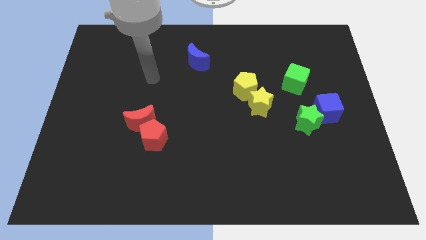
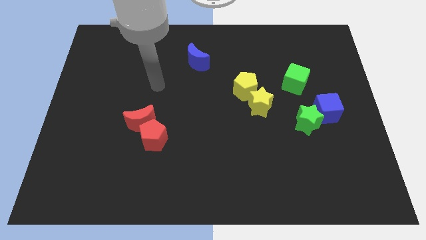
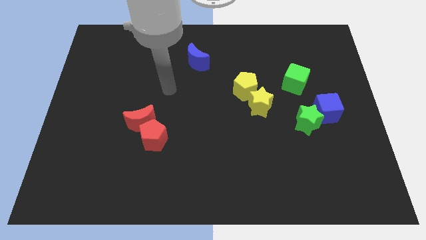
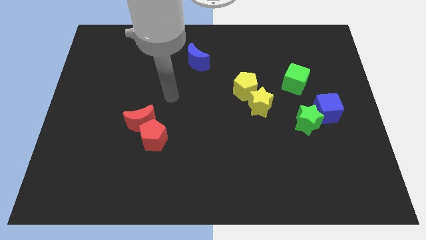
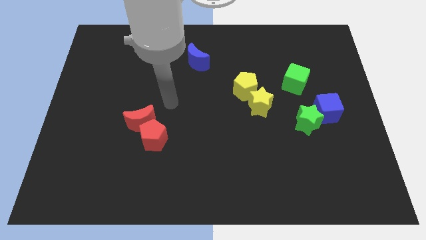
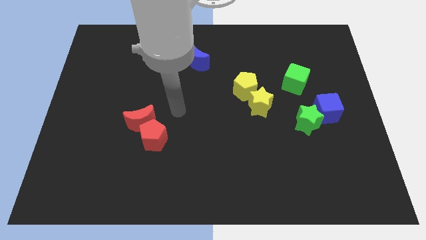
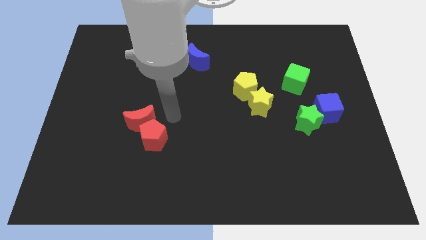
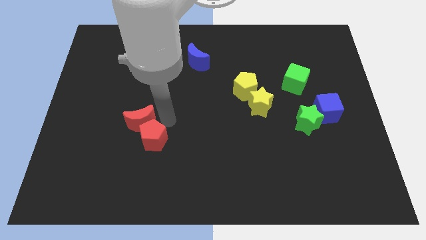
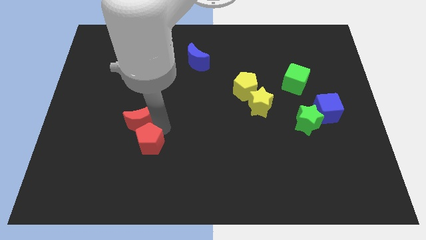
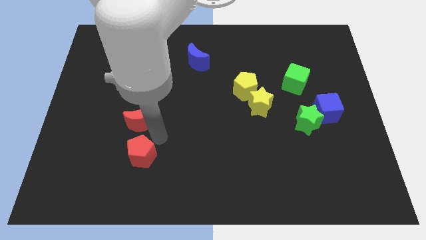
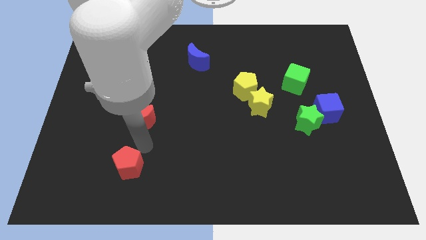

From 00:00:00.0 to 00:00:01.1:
move the red moon away from the red pentagon

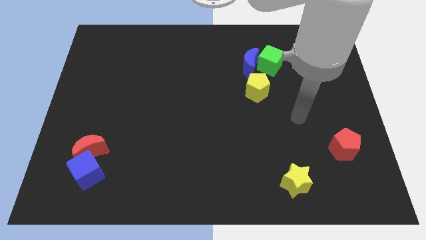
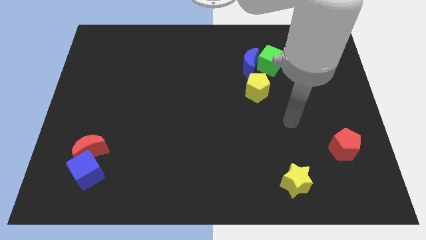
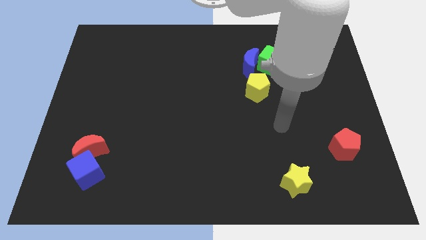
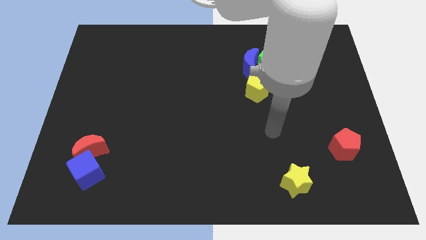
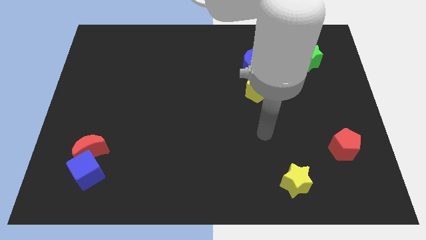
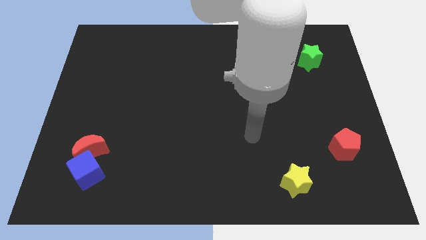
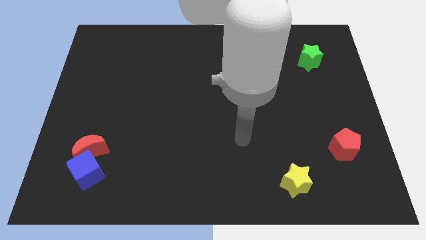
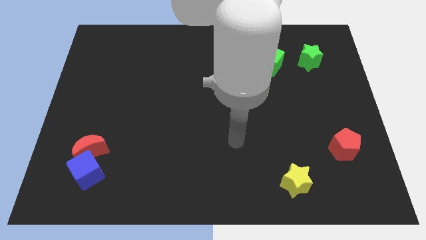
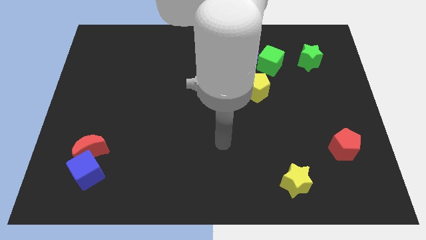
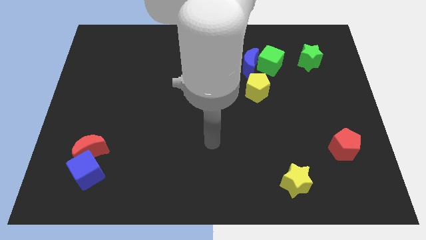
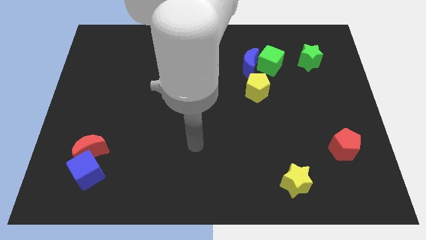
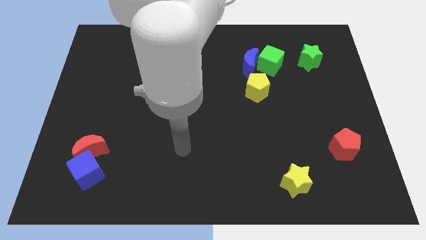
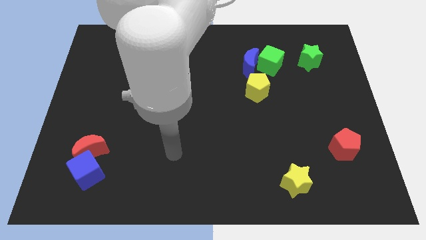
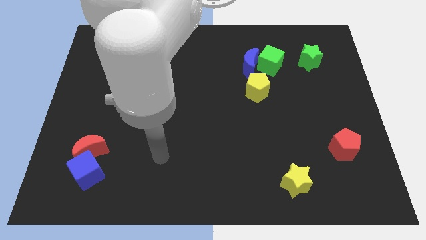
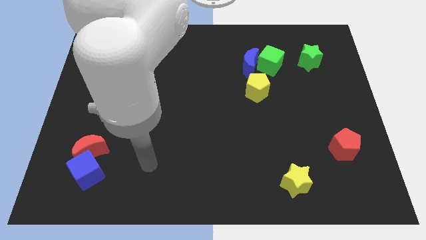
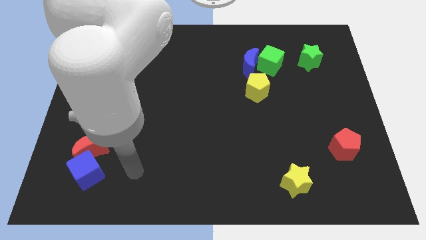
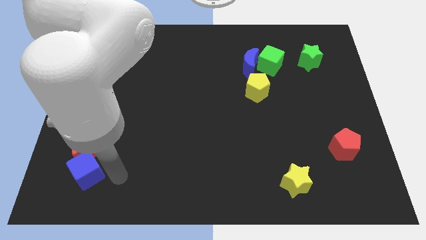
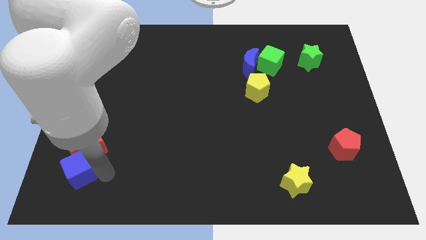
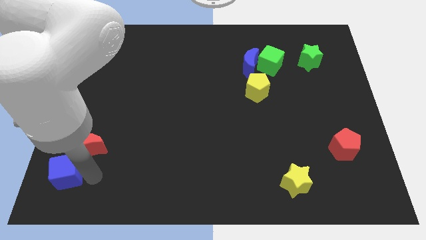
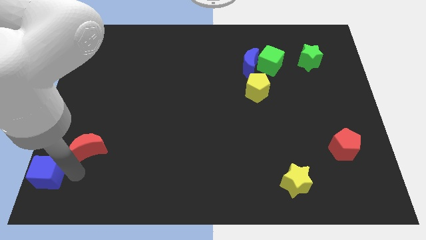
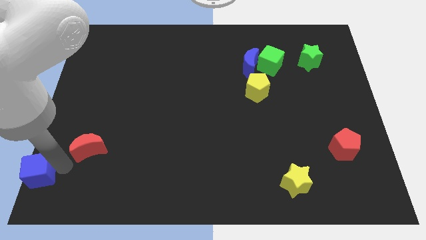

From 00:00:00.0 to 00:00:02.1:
move the red moon away from the blue cube

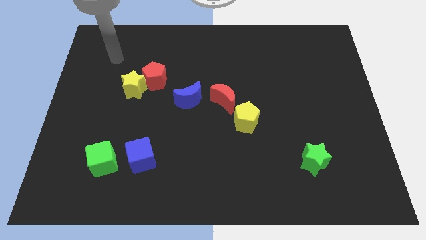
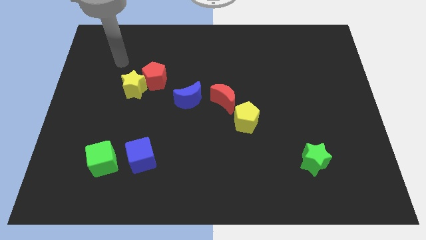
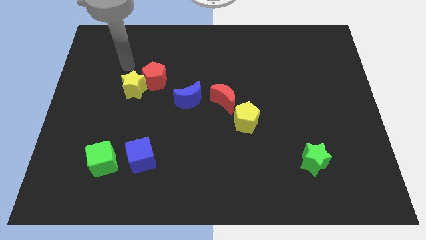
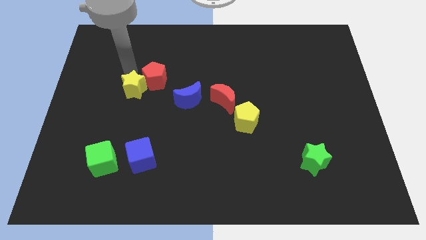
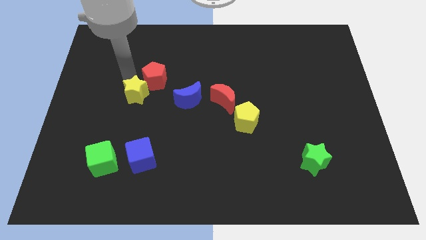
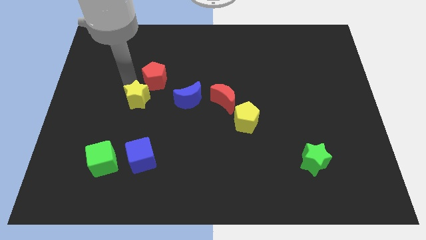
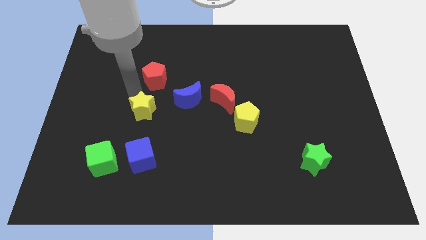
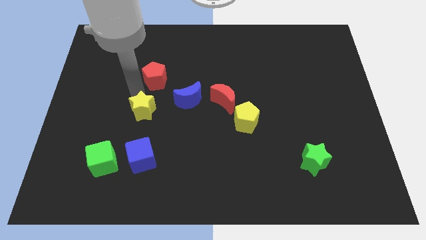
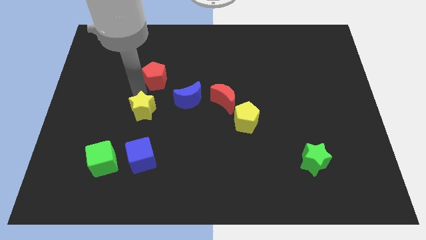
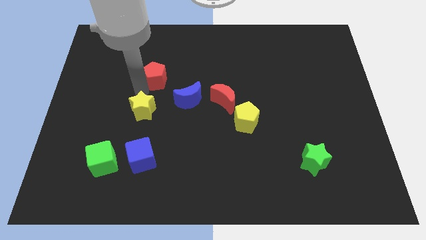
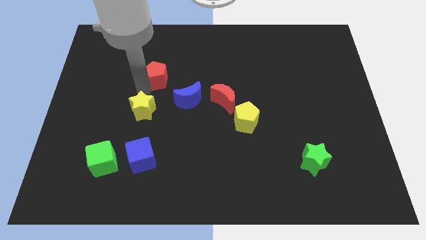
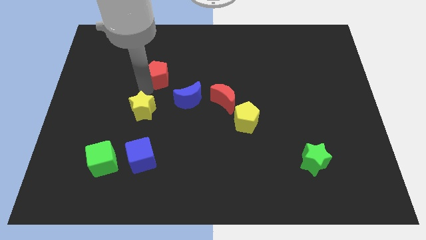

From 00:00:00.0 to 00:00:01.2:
move the red pentagon away from the yellow star

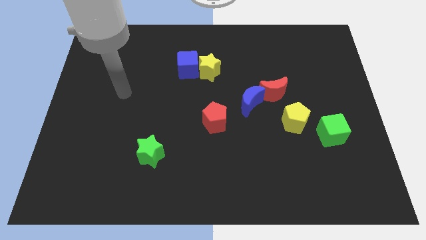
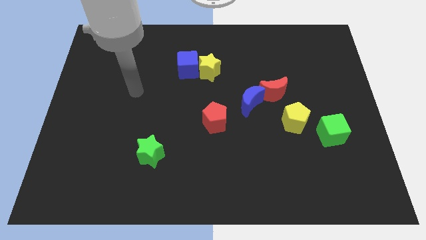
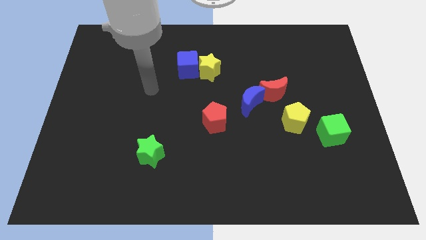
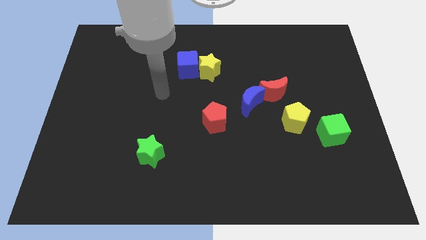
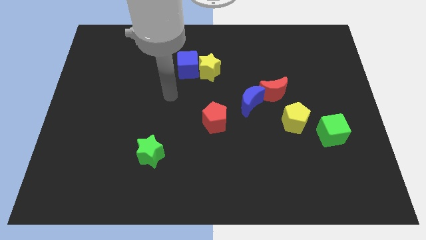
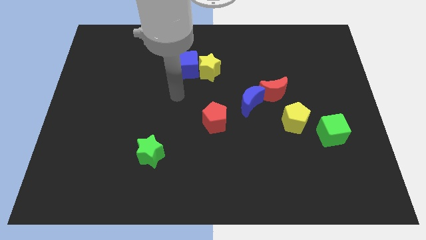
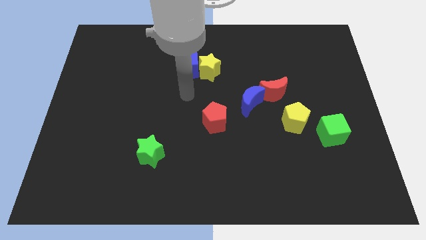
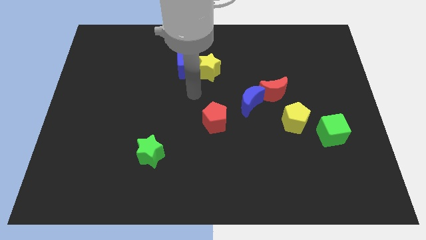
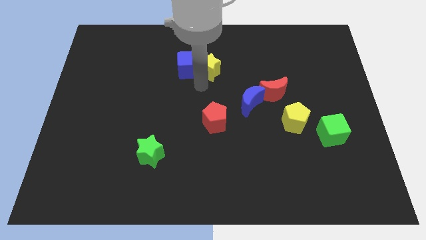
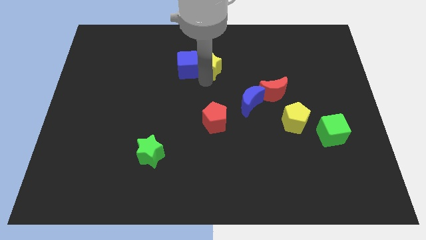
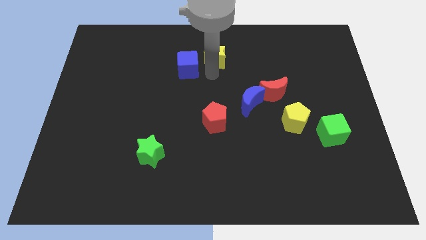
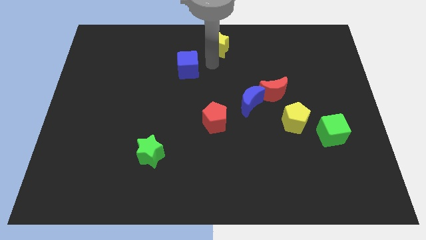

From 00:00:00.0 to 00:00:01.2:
move the blue cube away from the yellow star

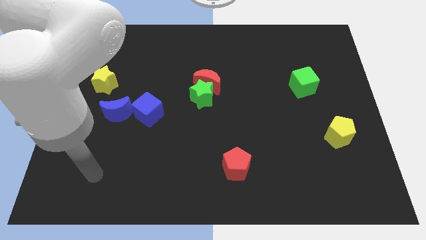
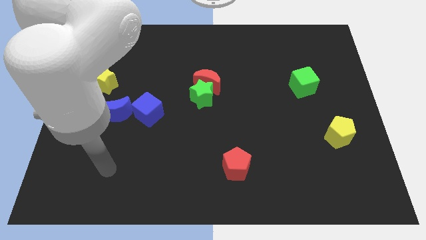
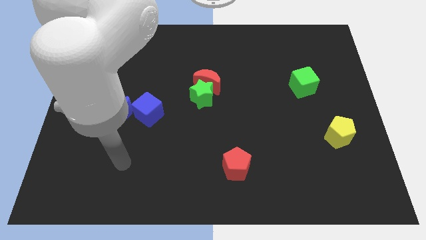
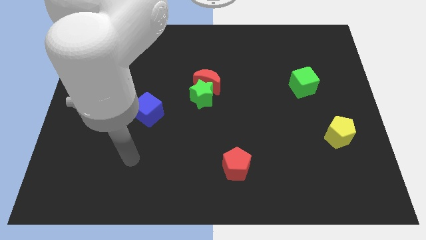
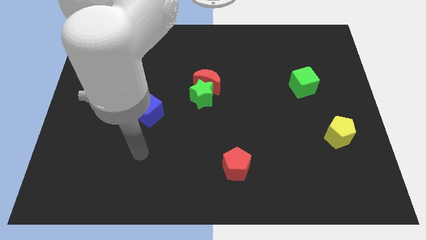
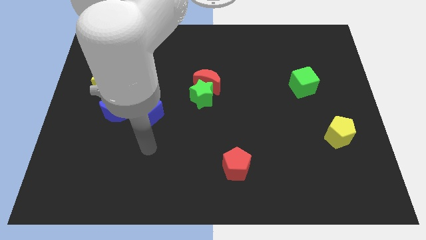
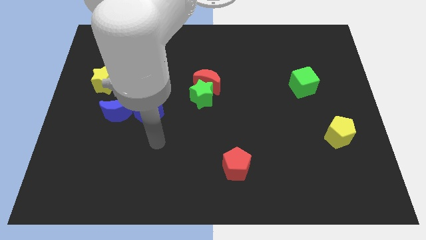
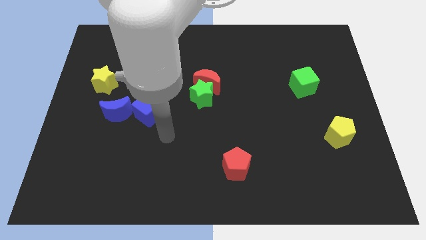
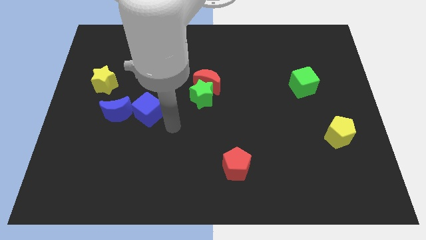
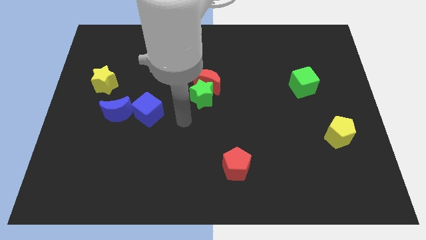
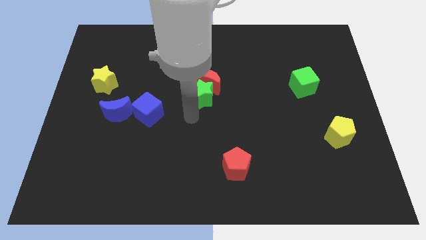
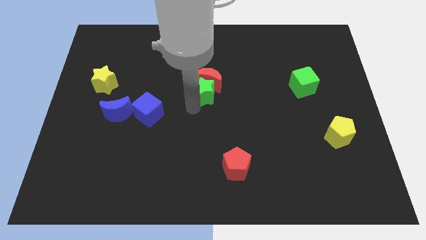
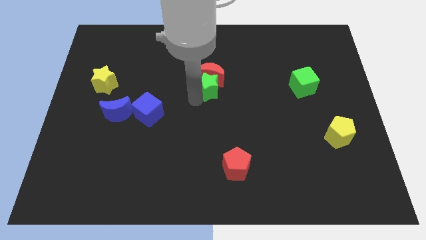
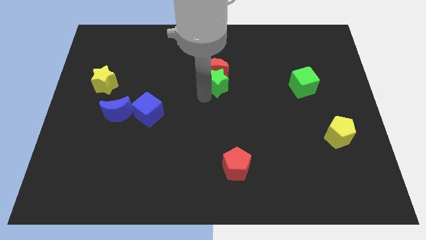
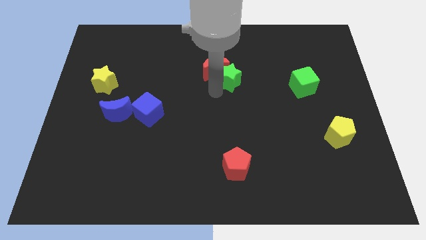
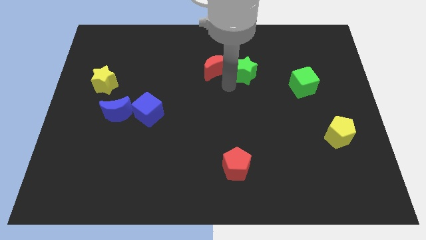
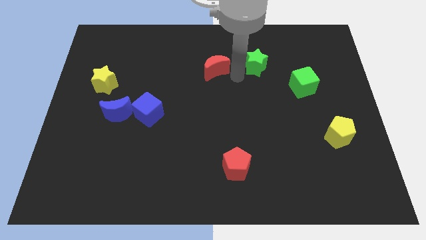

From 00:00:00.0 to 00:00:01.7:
pull the red moon apart from the green star

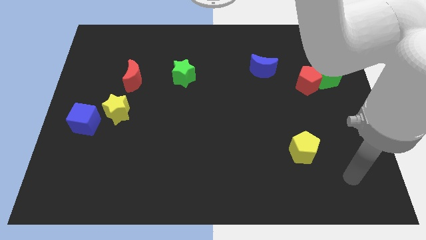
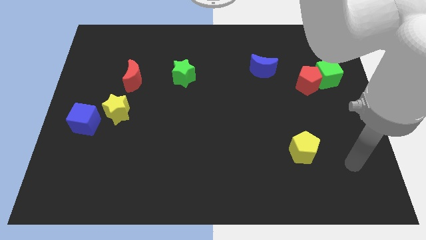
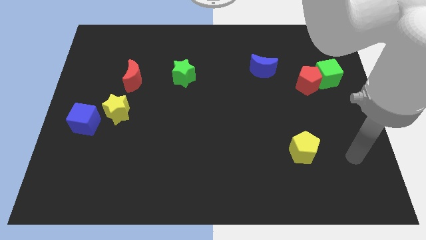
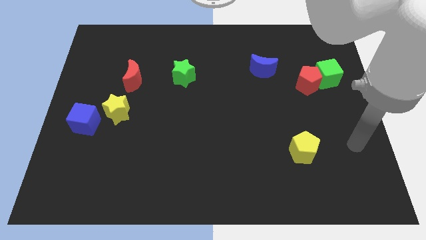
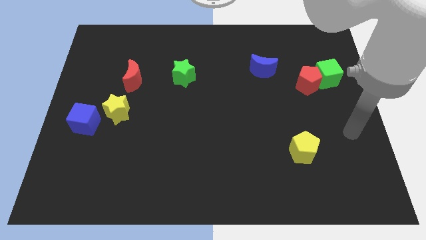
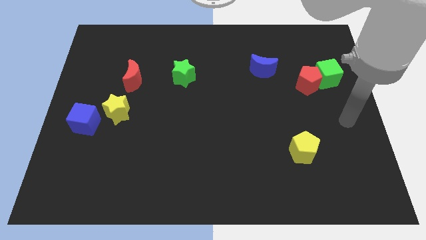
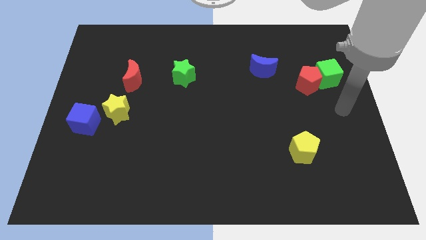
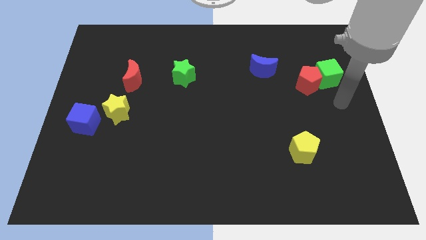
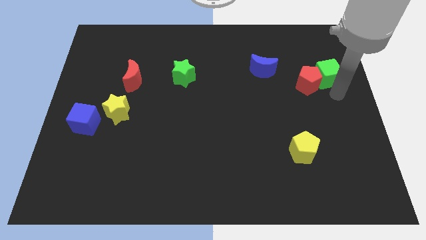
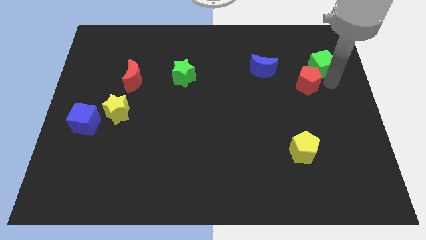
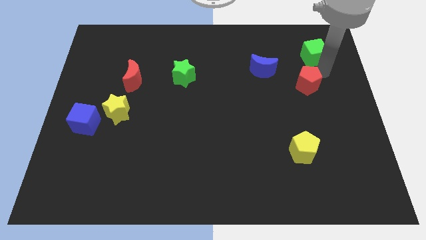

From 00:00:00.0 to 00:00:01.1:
separate the red pentagon from the green cube

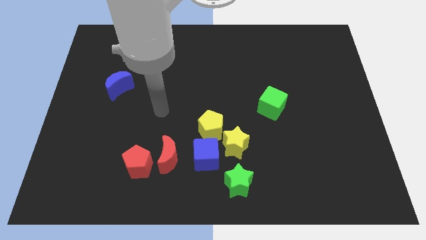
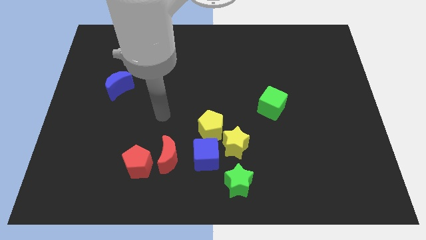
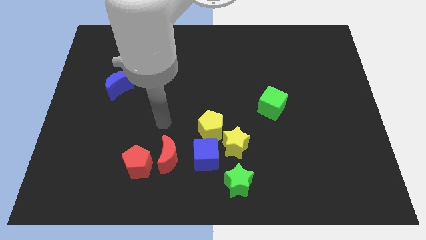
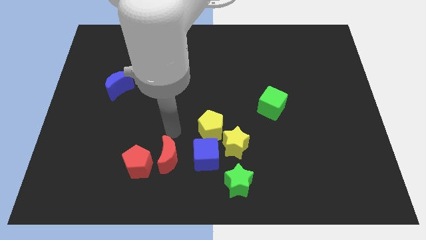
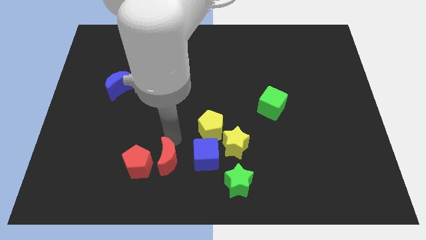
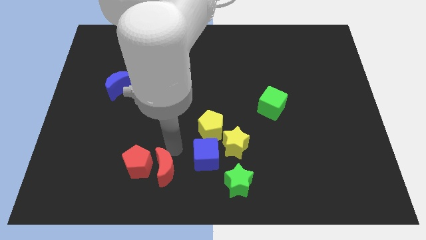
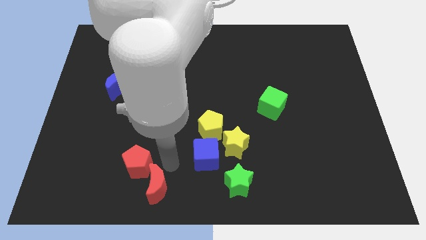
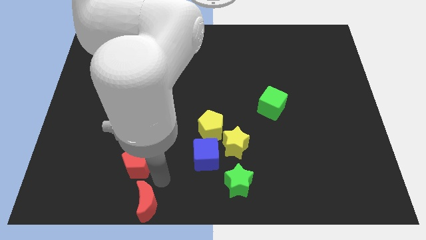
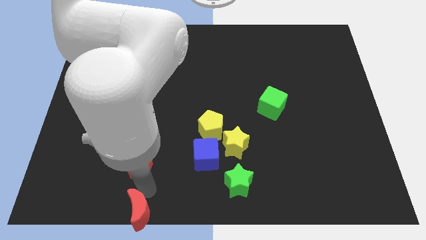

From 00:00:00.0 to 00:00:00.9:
pull the red pentagon apart from the red moon

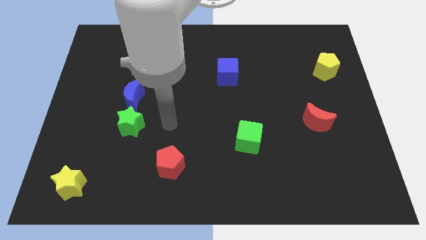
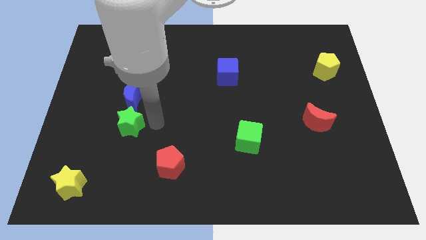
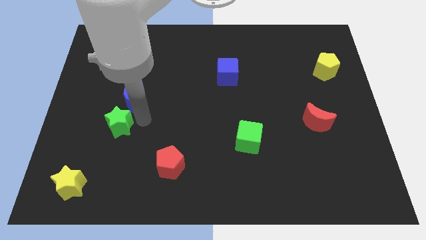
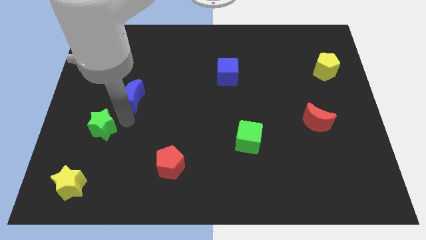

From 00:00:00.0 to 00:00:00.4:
pull the blue moon apart from the green star
